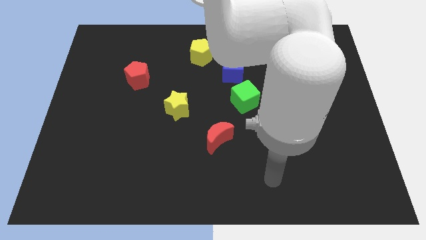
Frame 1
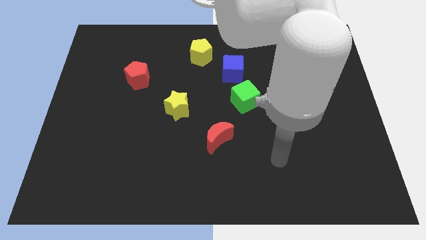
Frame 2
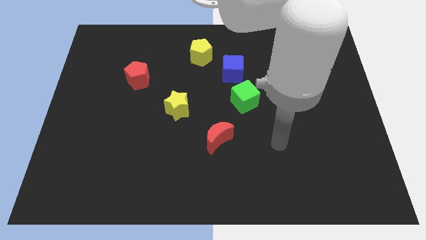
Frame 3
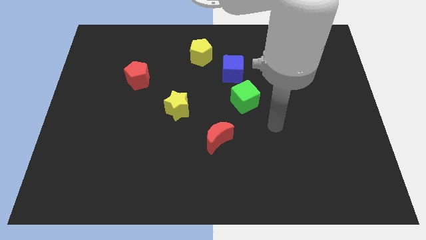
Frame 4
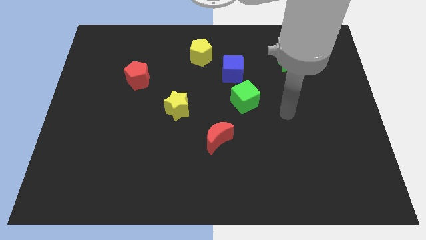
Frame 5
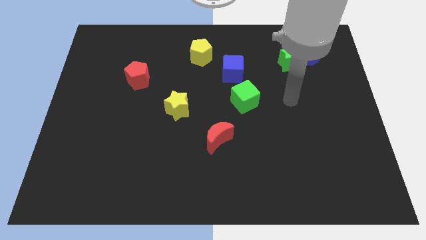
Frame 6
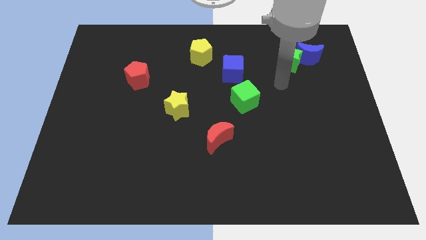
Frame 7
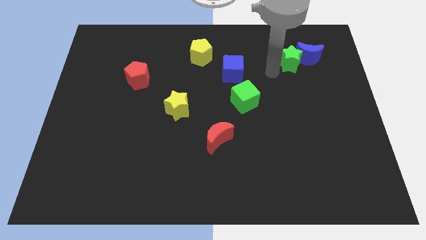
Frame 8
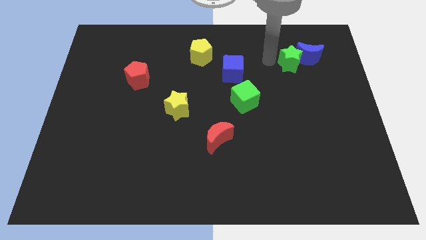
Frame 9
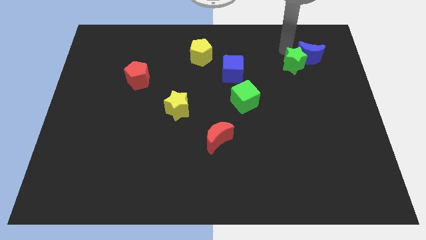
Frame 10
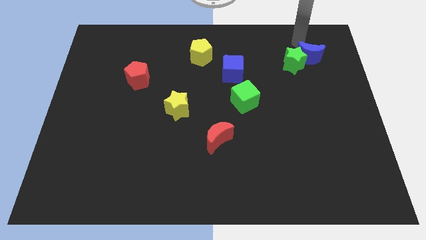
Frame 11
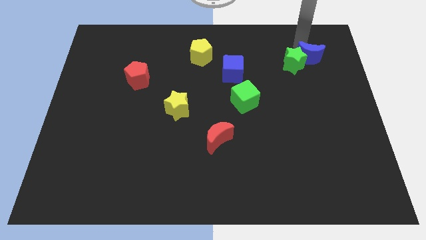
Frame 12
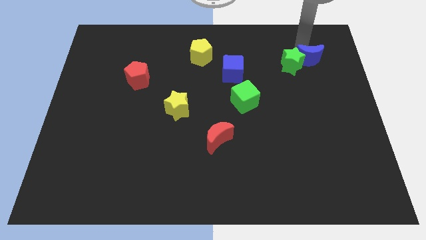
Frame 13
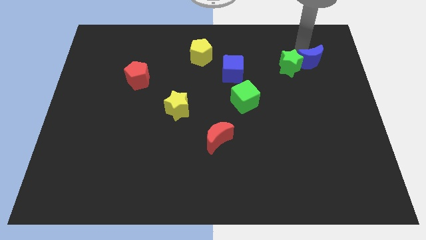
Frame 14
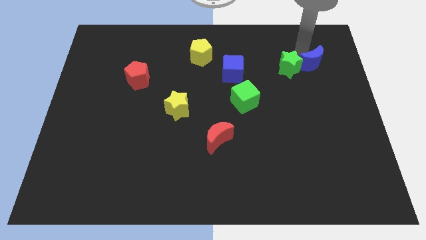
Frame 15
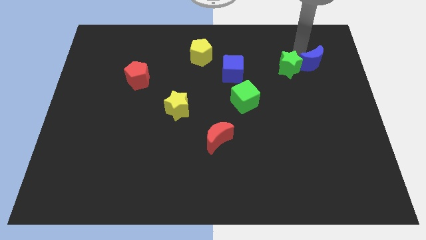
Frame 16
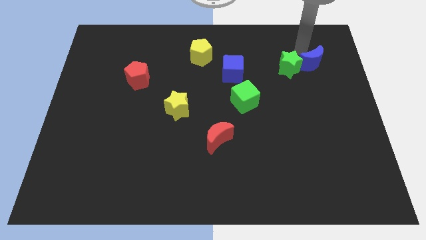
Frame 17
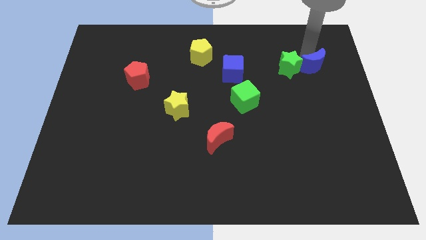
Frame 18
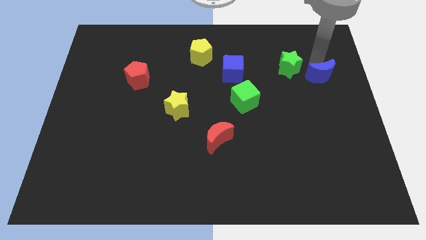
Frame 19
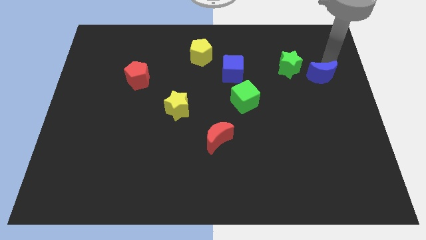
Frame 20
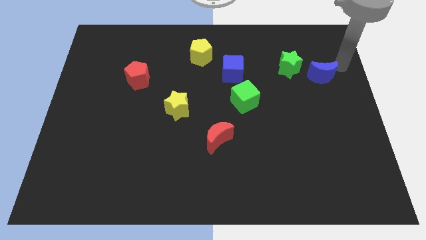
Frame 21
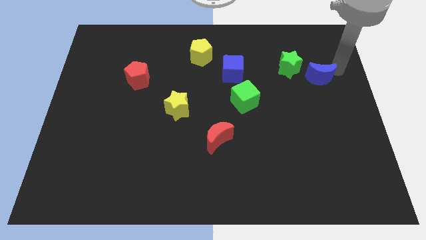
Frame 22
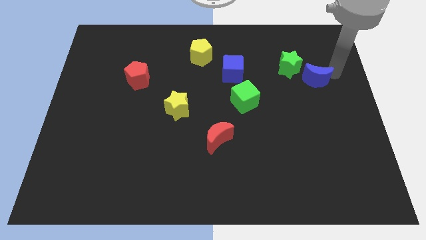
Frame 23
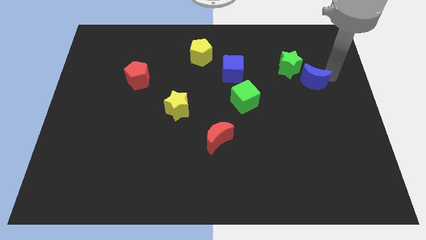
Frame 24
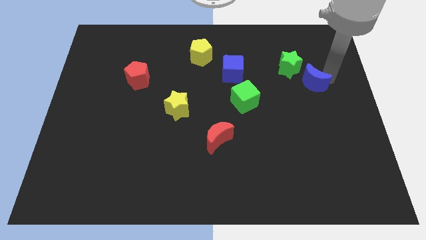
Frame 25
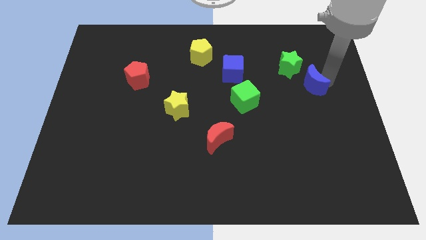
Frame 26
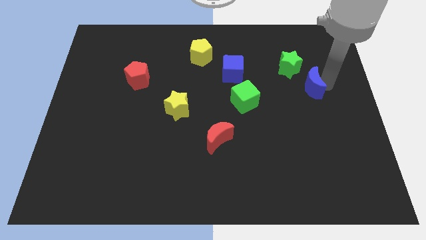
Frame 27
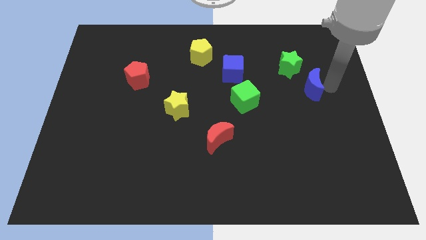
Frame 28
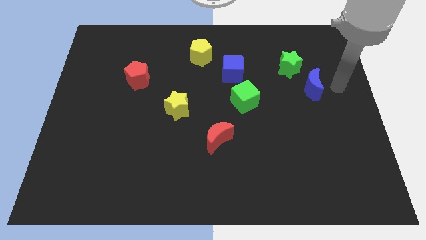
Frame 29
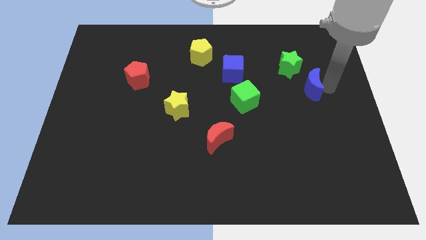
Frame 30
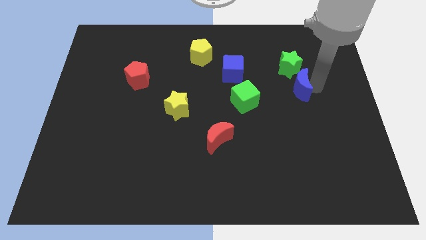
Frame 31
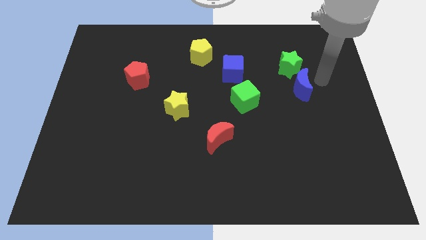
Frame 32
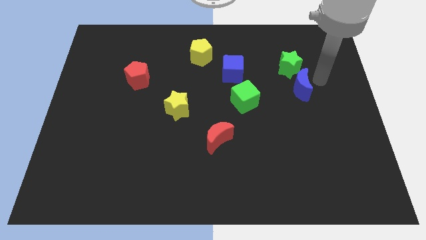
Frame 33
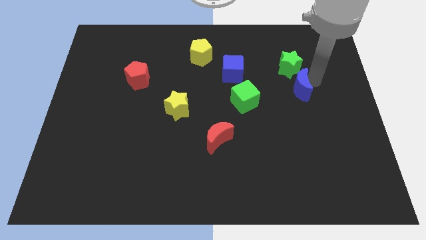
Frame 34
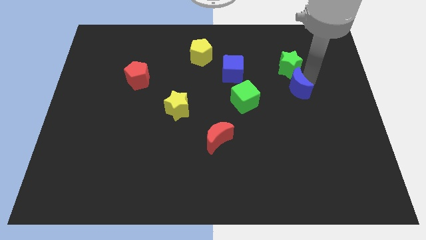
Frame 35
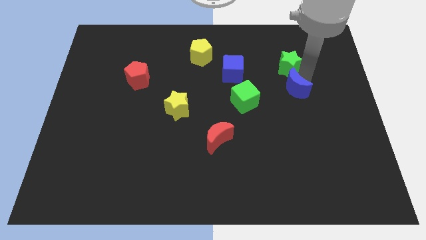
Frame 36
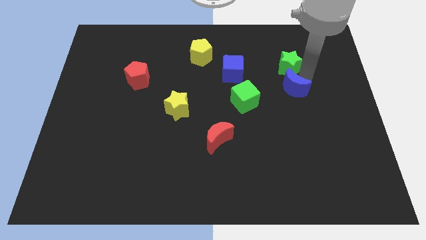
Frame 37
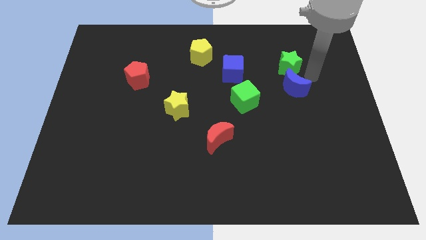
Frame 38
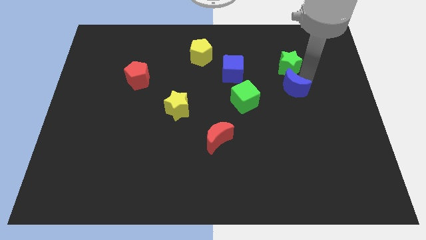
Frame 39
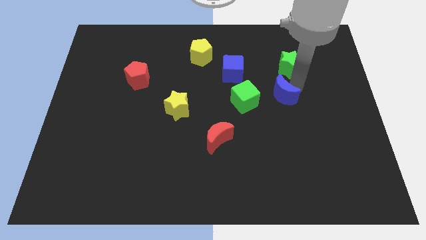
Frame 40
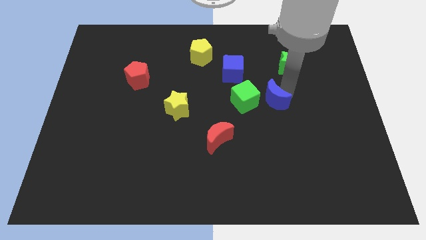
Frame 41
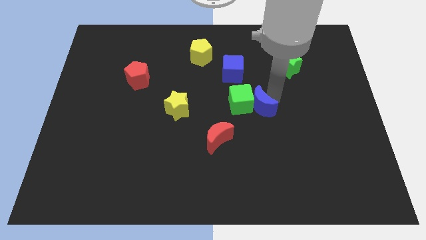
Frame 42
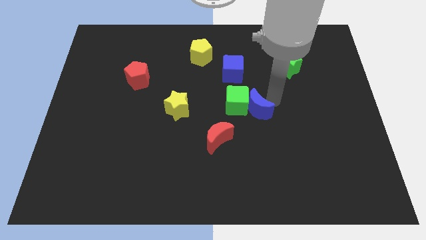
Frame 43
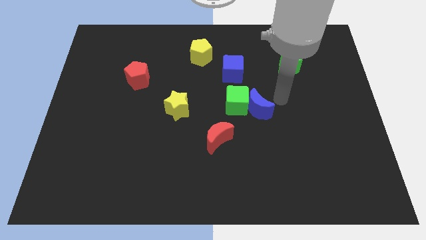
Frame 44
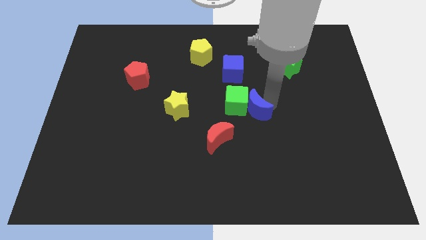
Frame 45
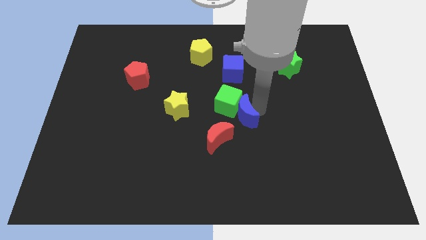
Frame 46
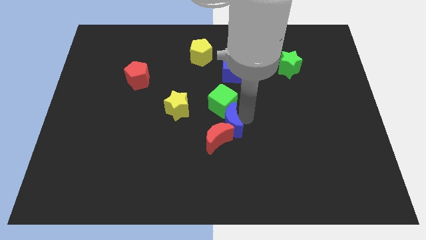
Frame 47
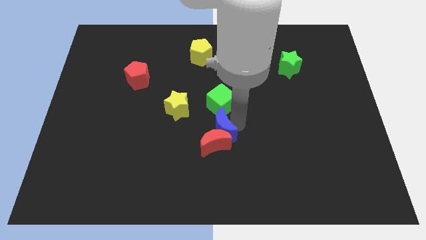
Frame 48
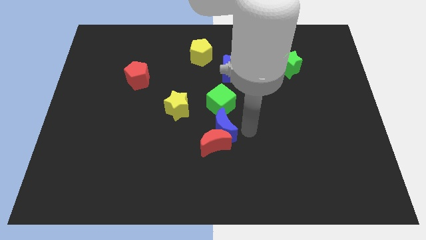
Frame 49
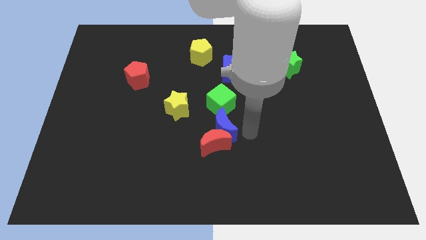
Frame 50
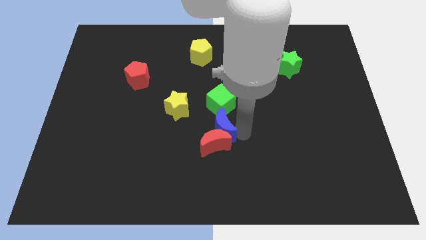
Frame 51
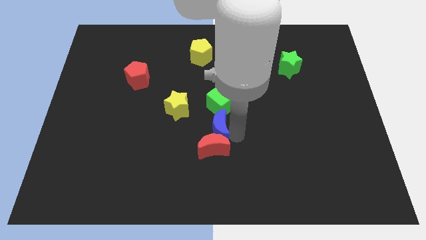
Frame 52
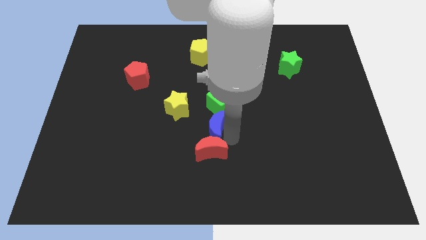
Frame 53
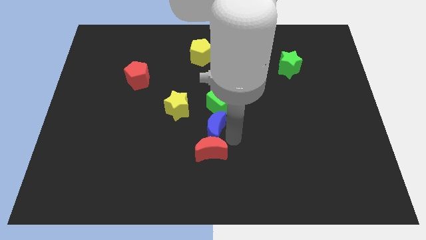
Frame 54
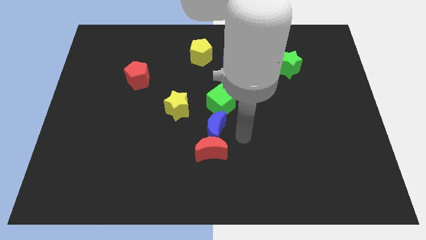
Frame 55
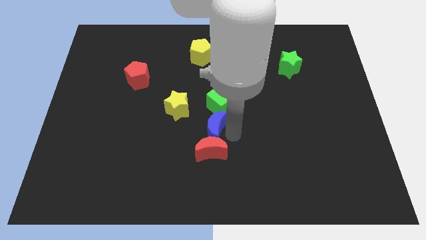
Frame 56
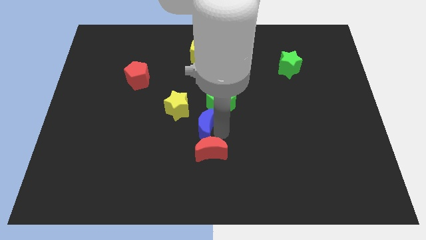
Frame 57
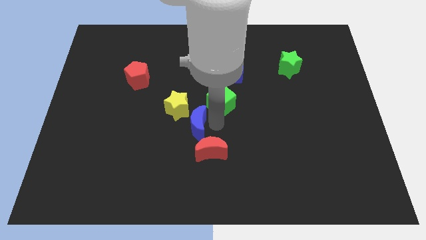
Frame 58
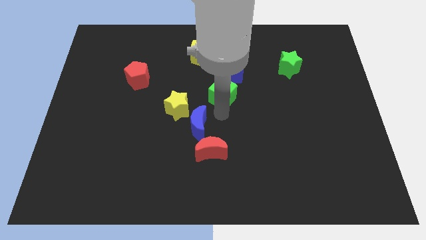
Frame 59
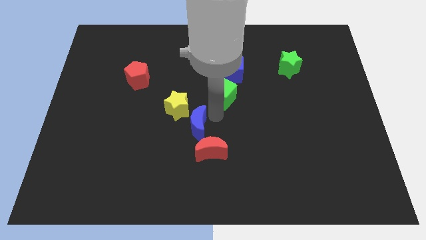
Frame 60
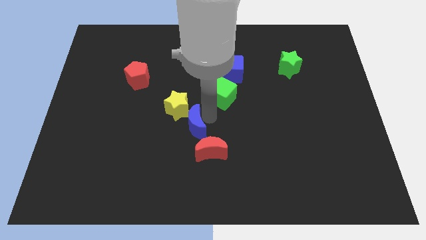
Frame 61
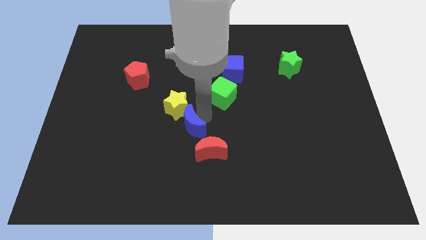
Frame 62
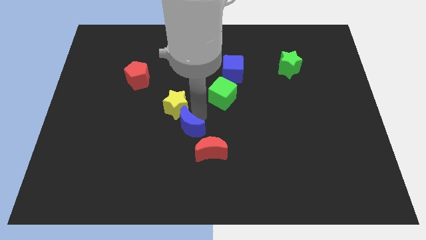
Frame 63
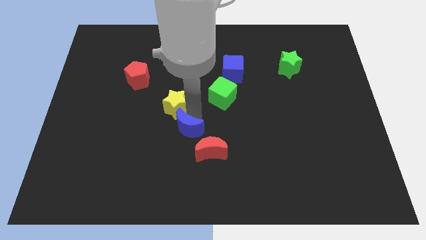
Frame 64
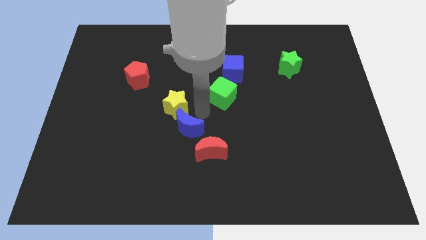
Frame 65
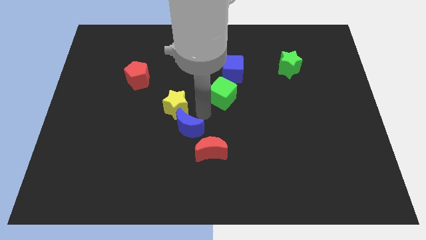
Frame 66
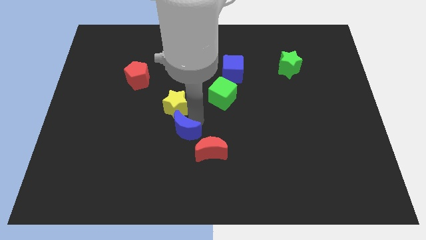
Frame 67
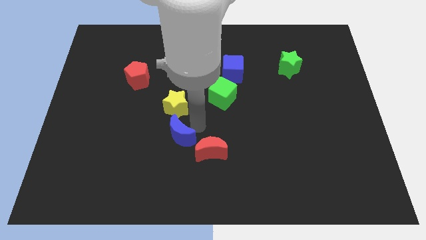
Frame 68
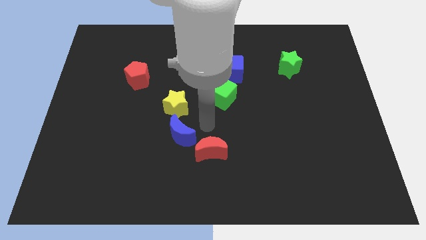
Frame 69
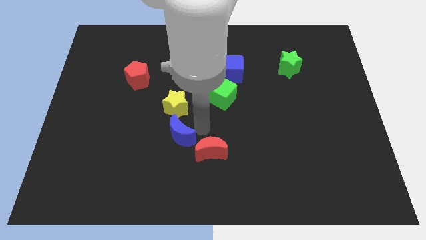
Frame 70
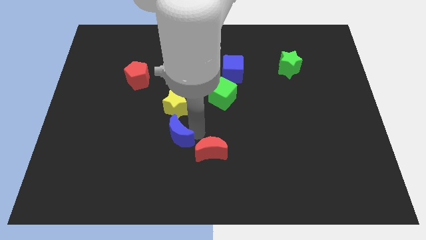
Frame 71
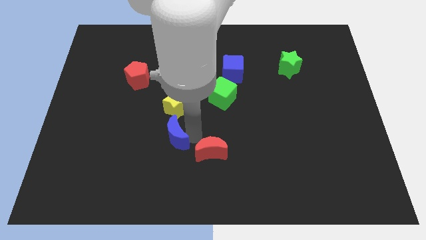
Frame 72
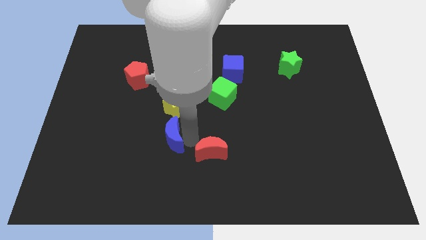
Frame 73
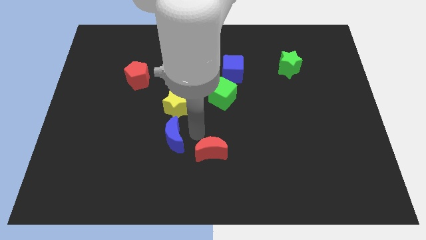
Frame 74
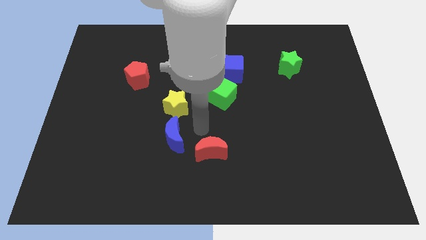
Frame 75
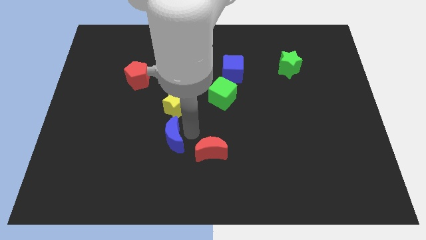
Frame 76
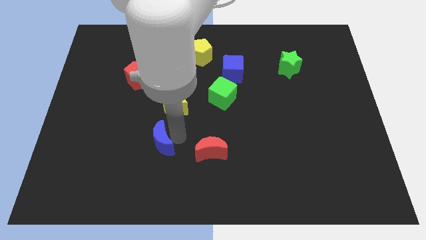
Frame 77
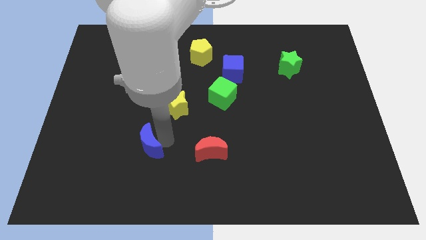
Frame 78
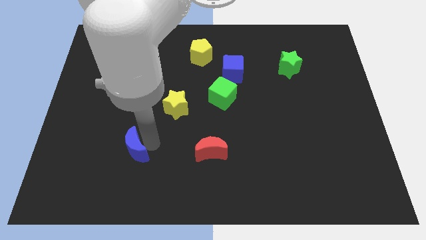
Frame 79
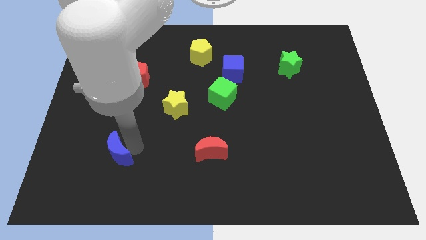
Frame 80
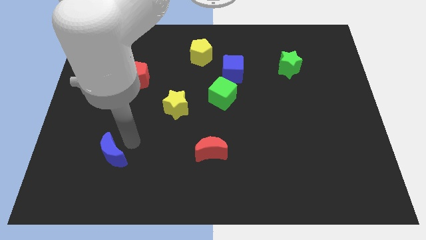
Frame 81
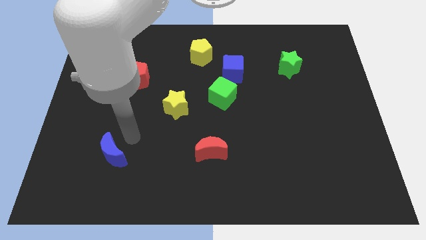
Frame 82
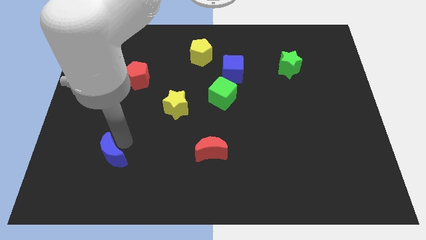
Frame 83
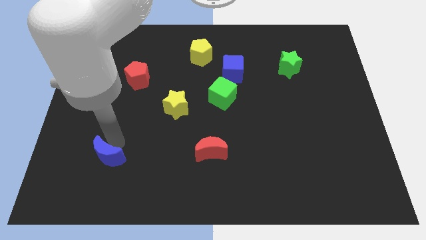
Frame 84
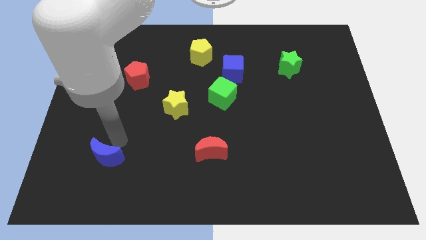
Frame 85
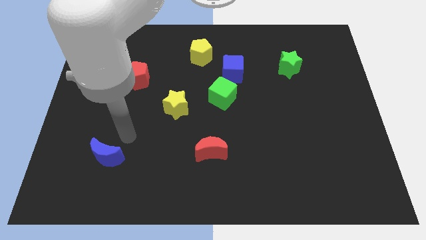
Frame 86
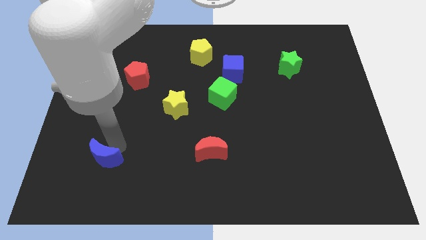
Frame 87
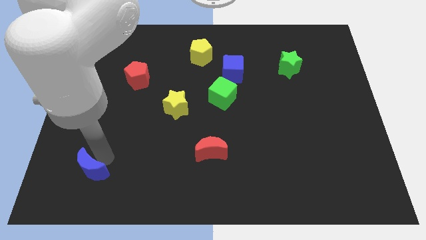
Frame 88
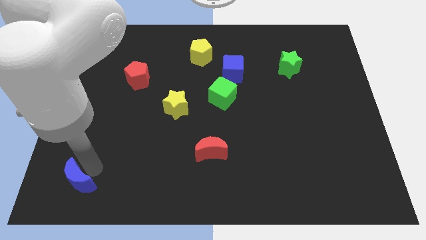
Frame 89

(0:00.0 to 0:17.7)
put the blue moon to the lower left corner
